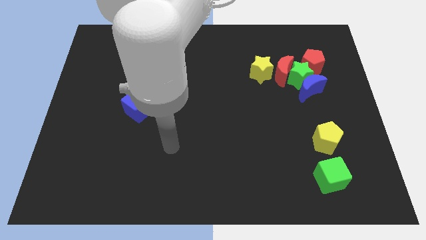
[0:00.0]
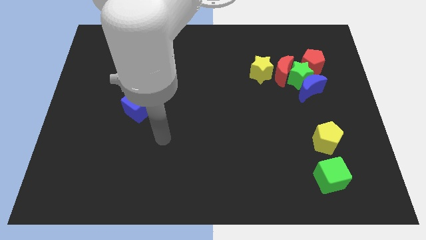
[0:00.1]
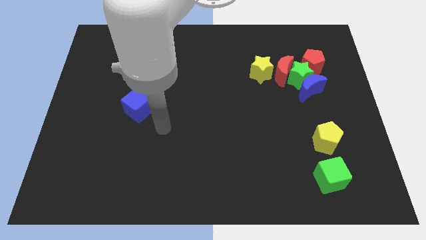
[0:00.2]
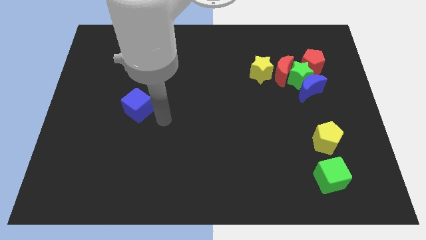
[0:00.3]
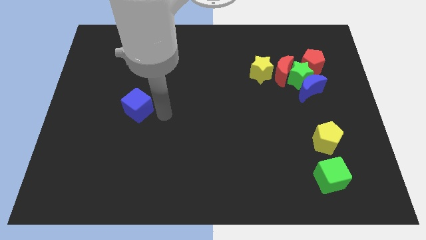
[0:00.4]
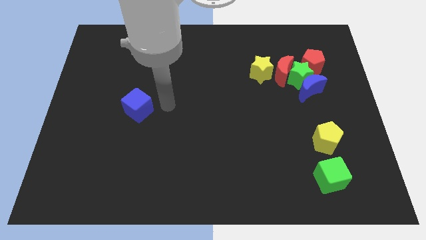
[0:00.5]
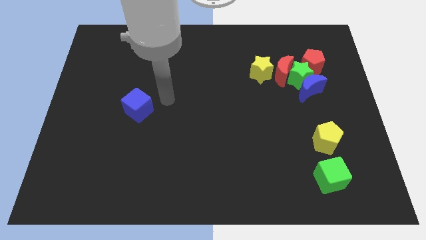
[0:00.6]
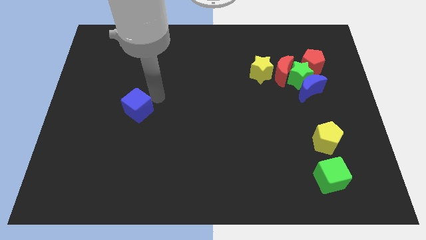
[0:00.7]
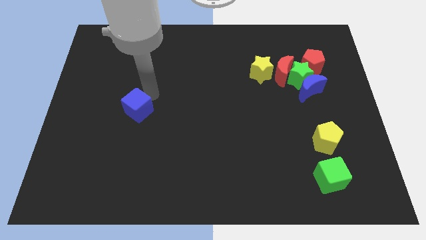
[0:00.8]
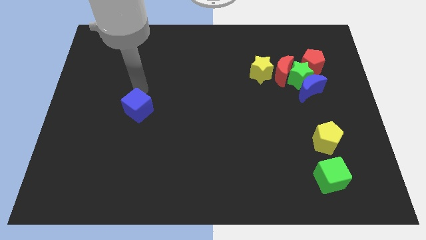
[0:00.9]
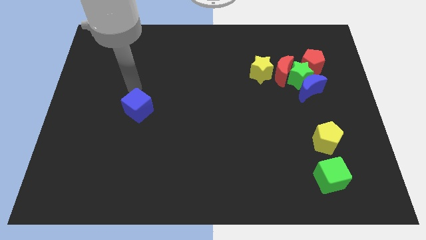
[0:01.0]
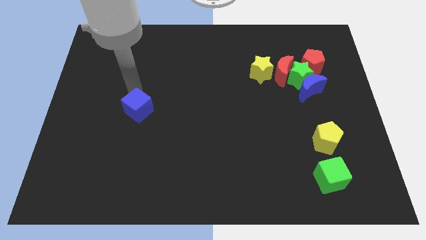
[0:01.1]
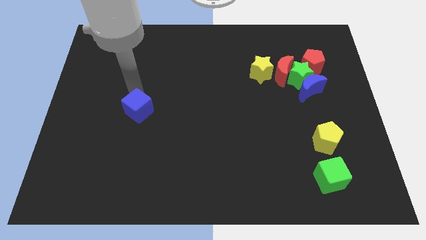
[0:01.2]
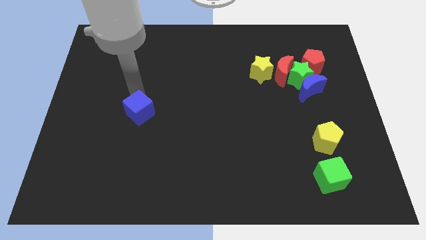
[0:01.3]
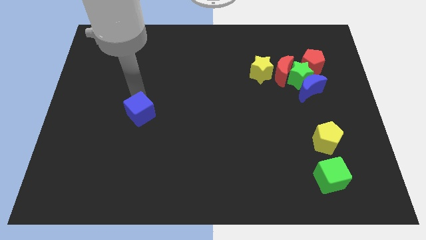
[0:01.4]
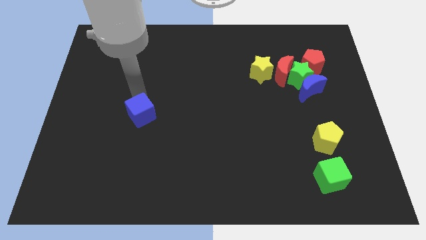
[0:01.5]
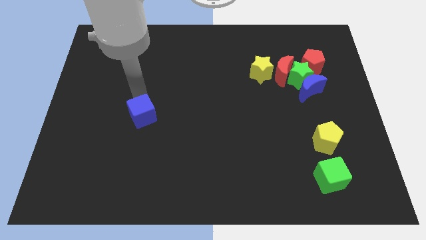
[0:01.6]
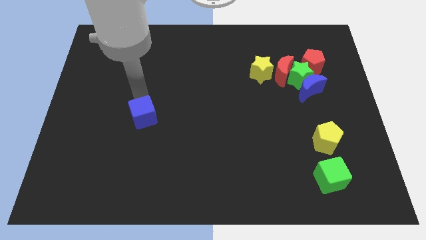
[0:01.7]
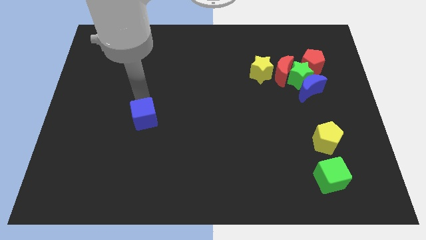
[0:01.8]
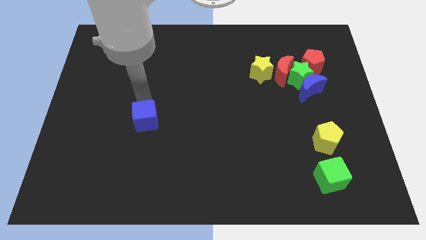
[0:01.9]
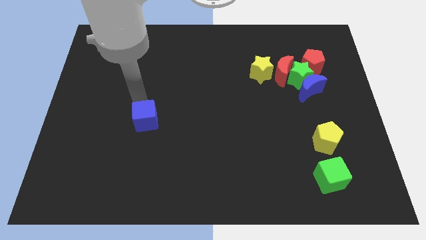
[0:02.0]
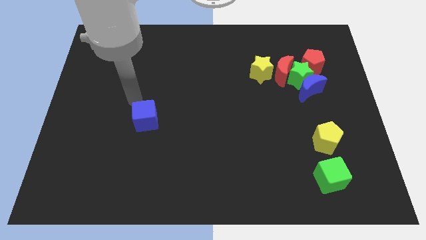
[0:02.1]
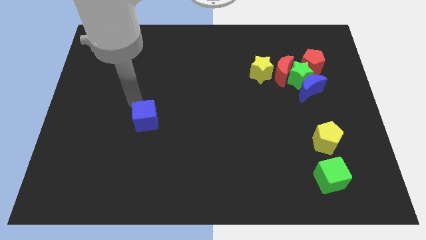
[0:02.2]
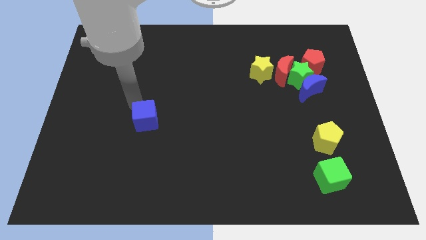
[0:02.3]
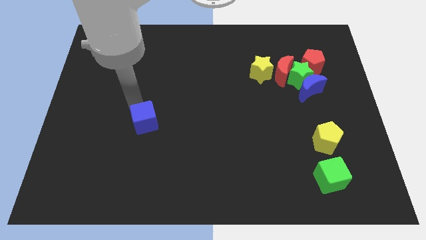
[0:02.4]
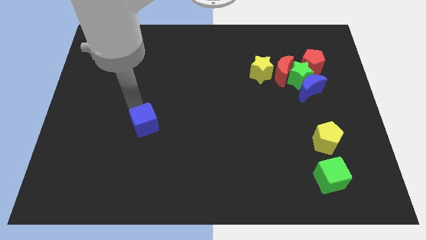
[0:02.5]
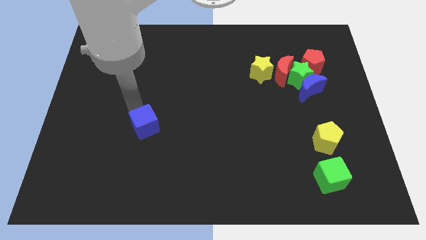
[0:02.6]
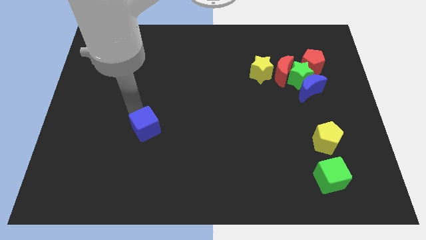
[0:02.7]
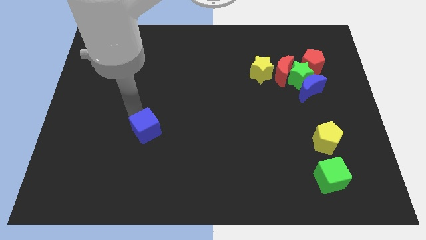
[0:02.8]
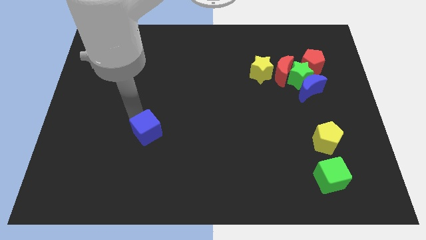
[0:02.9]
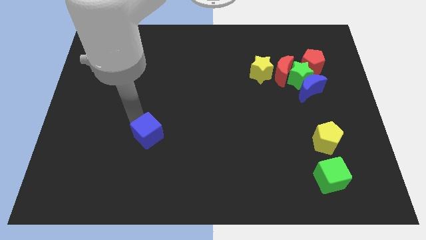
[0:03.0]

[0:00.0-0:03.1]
slide the blue cube somewhat downwards and to the right diagonally

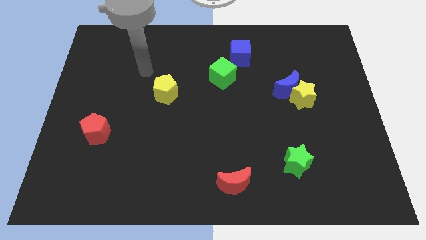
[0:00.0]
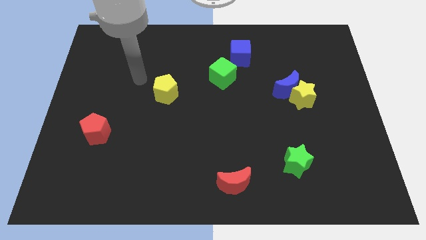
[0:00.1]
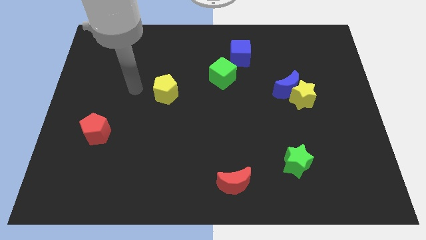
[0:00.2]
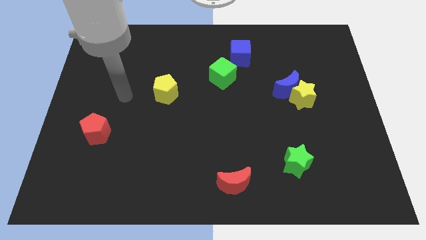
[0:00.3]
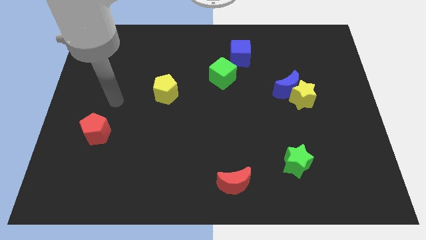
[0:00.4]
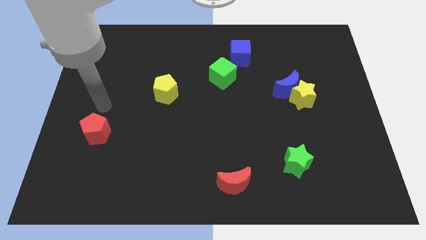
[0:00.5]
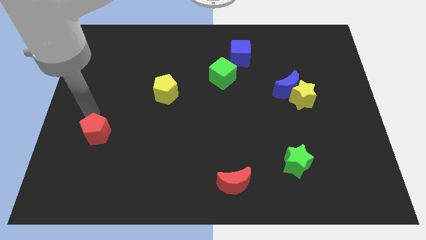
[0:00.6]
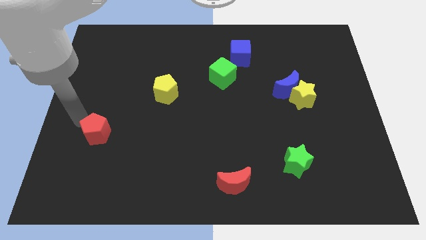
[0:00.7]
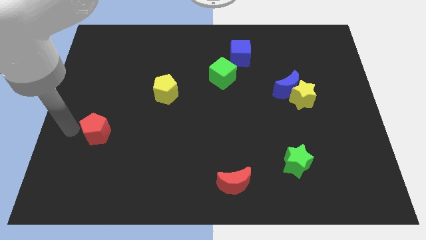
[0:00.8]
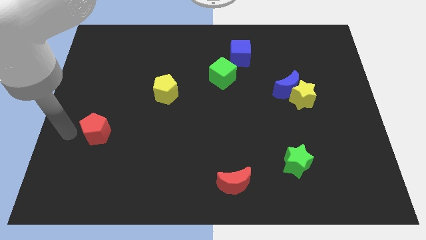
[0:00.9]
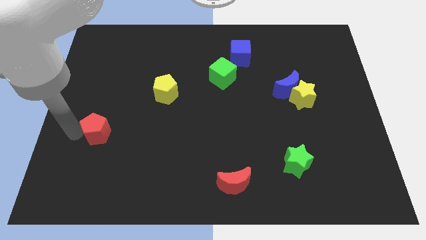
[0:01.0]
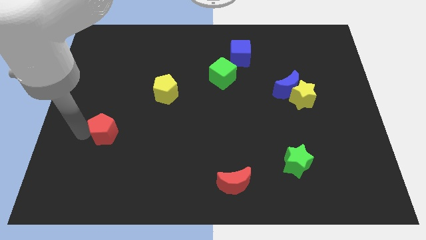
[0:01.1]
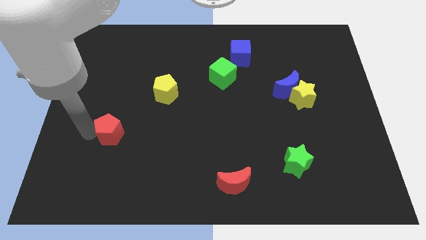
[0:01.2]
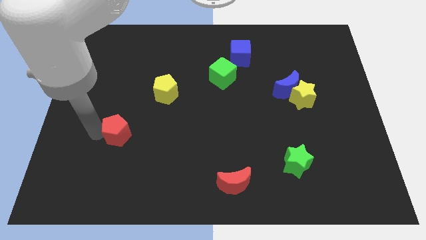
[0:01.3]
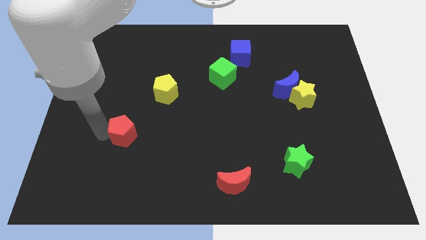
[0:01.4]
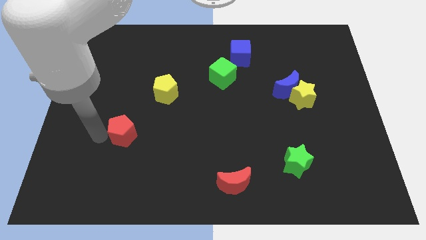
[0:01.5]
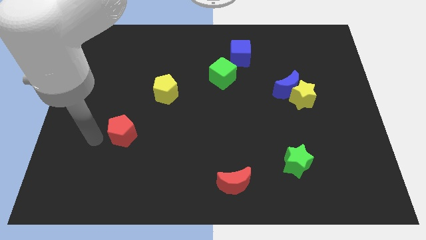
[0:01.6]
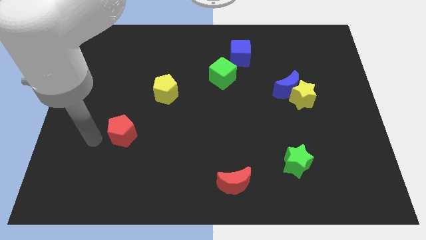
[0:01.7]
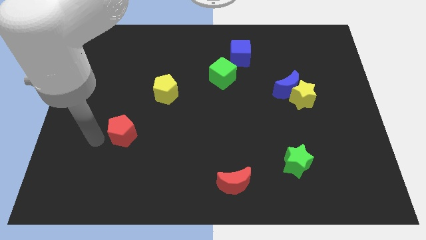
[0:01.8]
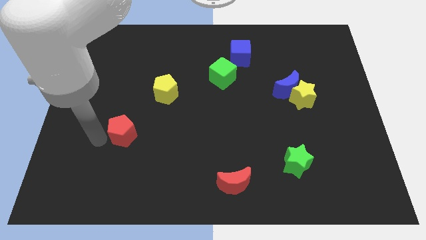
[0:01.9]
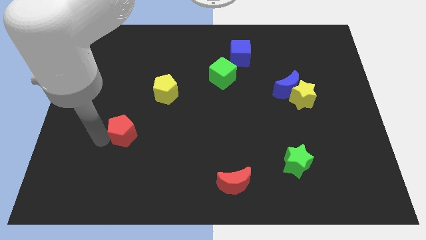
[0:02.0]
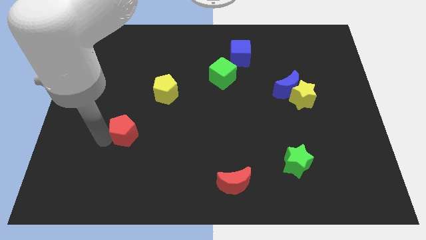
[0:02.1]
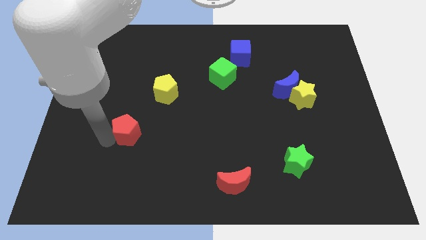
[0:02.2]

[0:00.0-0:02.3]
move the red pentagon a bit to the right

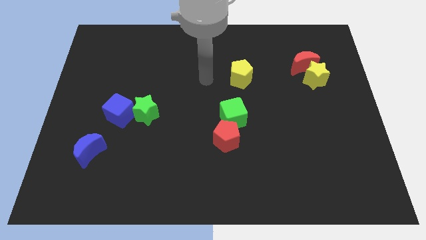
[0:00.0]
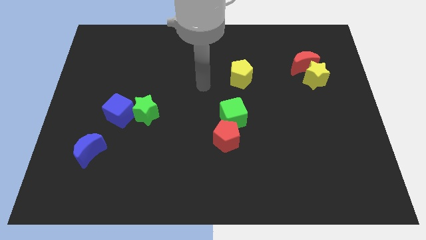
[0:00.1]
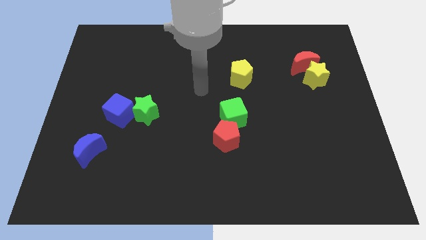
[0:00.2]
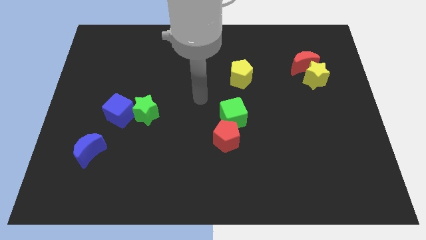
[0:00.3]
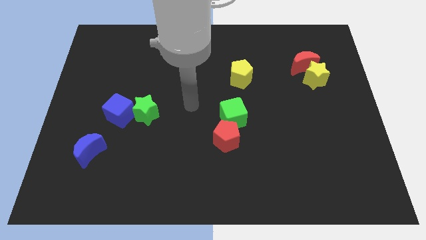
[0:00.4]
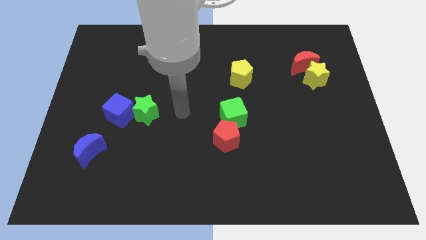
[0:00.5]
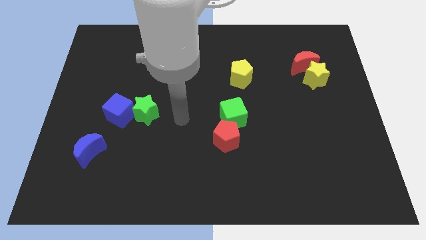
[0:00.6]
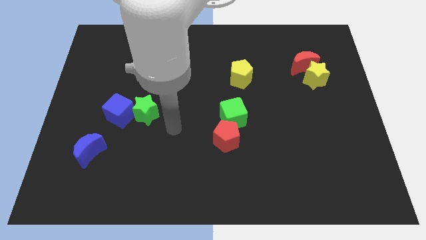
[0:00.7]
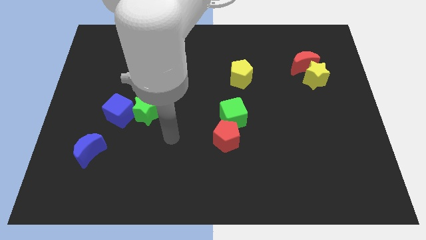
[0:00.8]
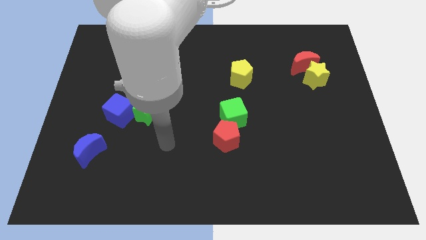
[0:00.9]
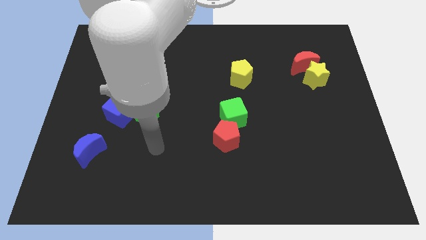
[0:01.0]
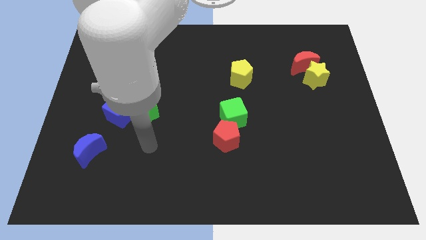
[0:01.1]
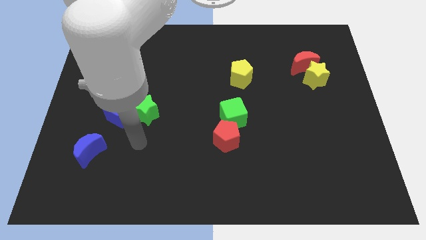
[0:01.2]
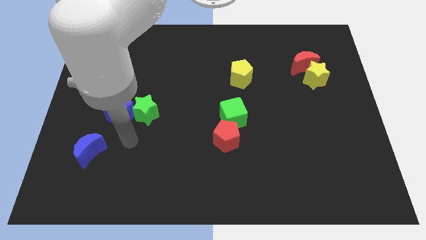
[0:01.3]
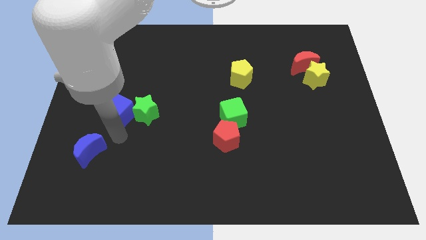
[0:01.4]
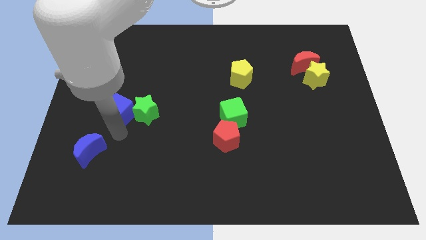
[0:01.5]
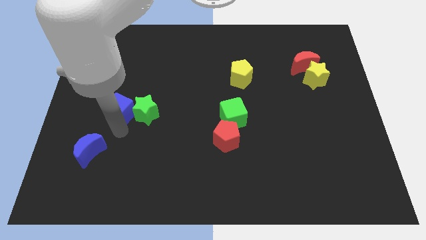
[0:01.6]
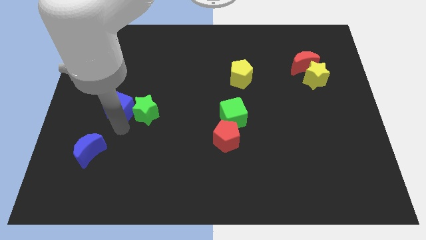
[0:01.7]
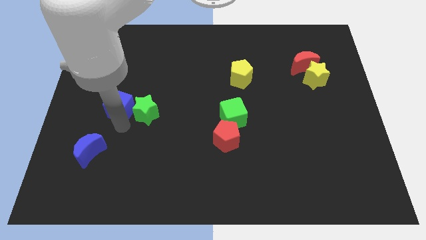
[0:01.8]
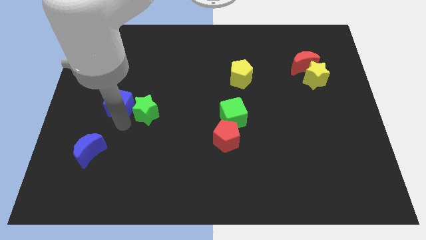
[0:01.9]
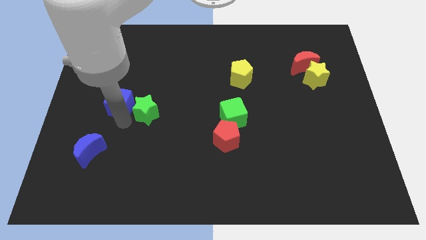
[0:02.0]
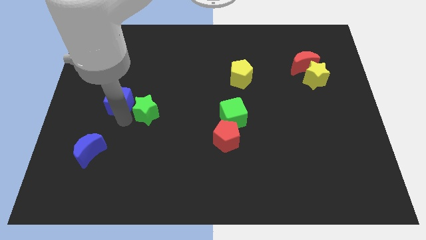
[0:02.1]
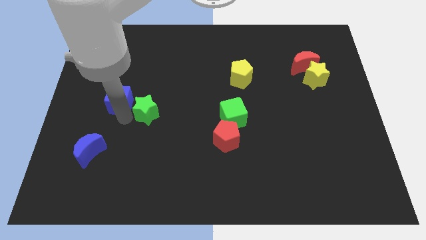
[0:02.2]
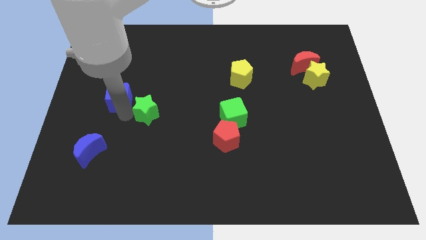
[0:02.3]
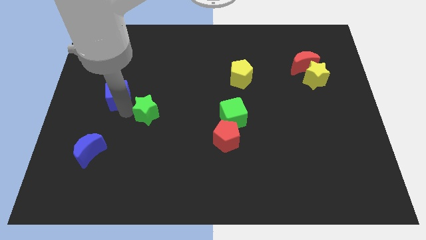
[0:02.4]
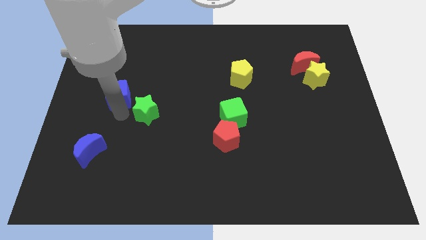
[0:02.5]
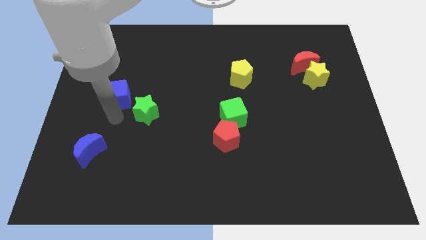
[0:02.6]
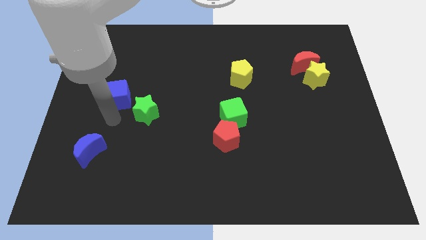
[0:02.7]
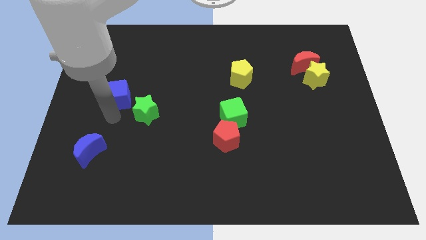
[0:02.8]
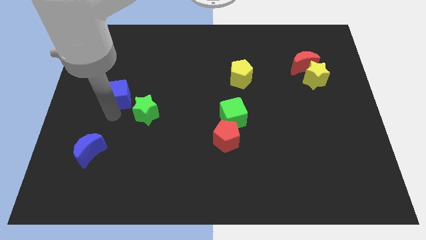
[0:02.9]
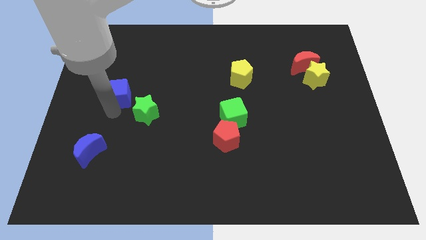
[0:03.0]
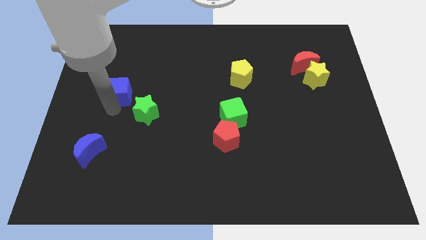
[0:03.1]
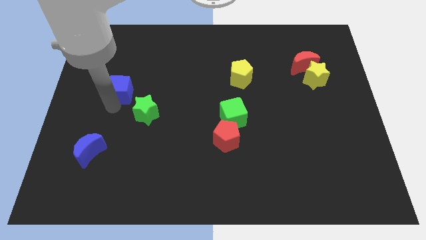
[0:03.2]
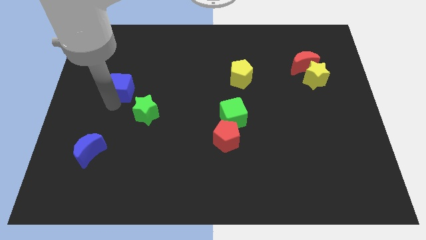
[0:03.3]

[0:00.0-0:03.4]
push the blue cube upwards a little bit
